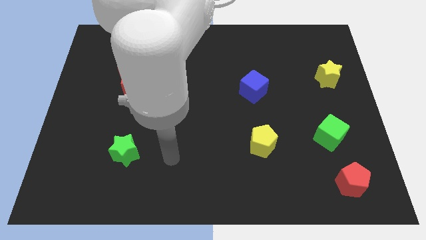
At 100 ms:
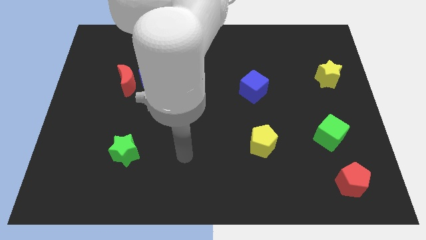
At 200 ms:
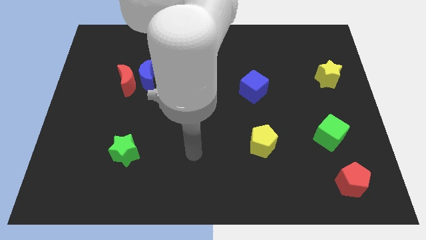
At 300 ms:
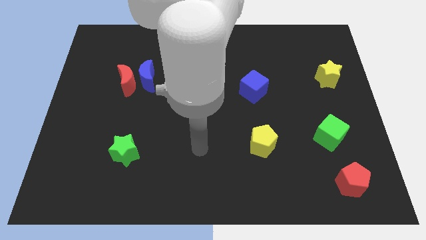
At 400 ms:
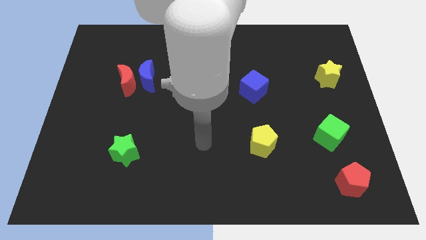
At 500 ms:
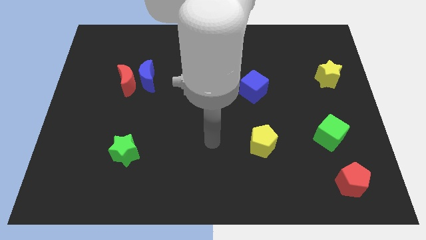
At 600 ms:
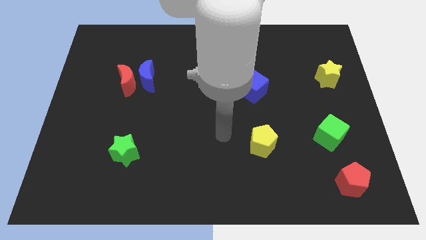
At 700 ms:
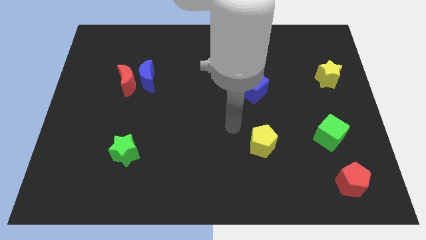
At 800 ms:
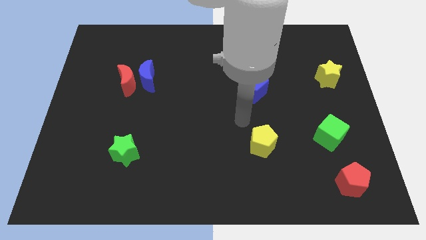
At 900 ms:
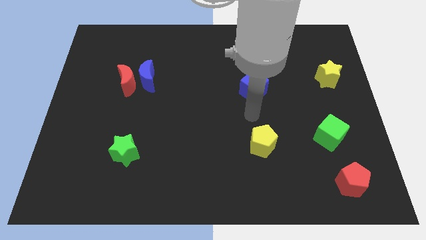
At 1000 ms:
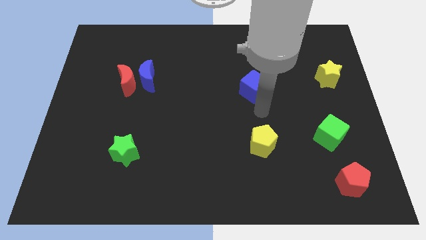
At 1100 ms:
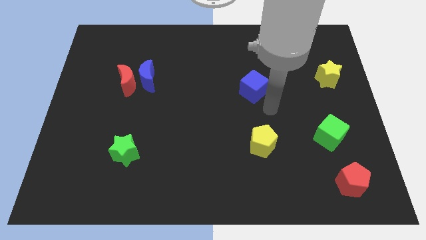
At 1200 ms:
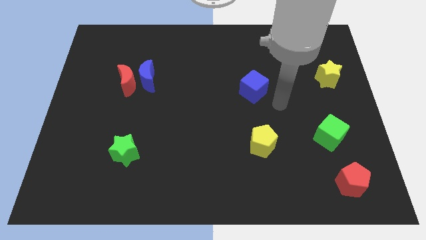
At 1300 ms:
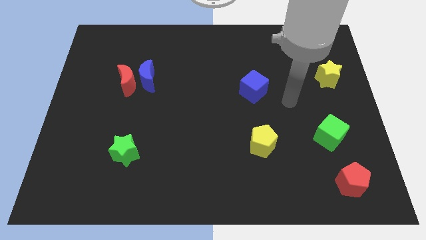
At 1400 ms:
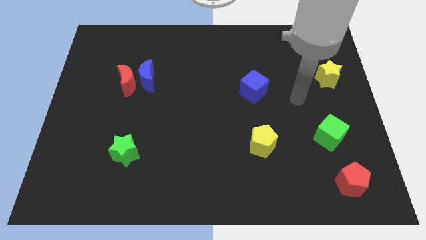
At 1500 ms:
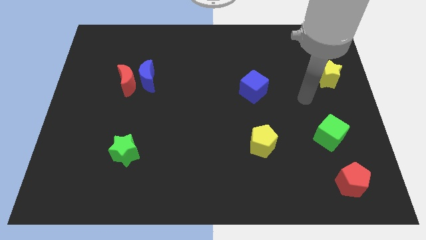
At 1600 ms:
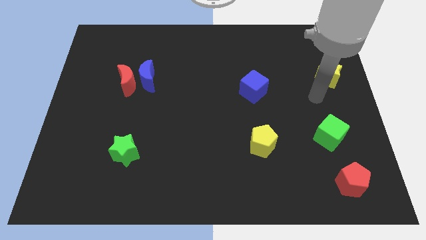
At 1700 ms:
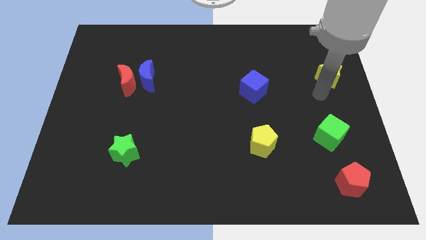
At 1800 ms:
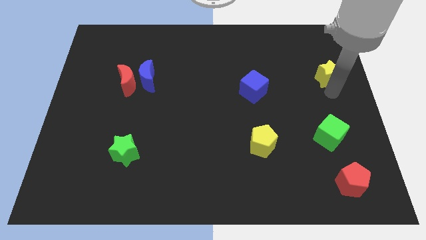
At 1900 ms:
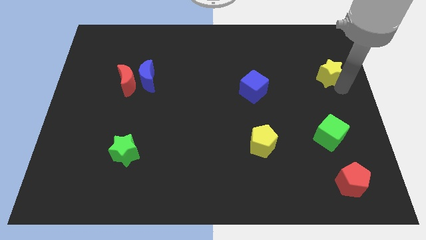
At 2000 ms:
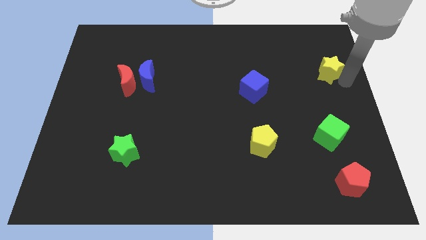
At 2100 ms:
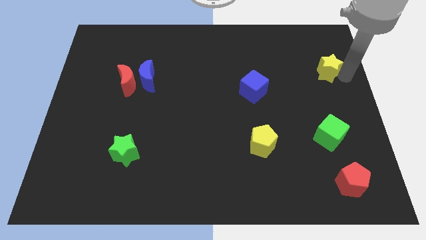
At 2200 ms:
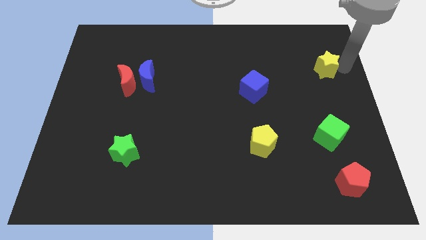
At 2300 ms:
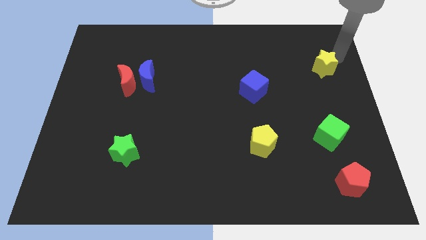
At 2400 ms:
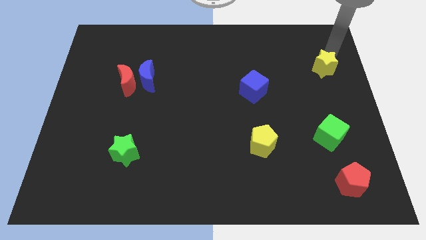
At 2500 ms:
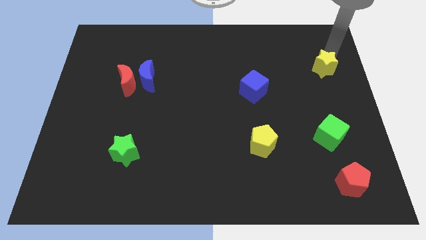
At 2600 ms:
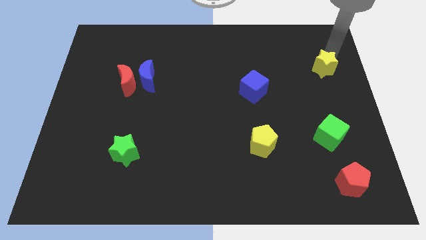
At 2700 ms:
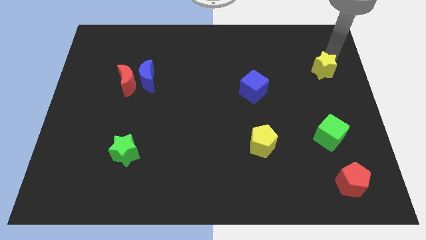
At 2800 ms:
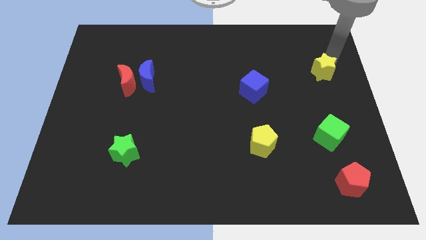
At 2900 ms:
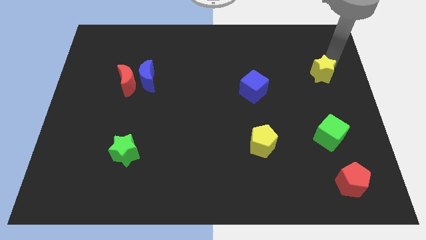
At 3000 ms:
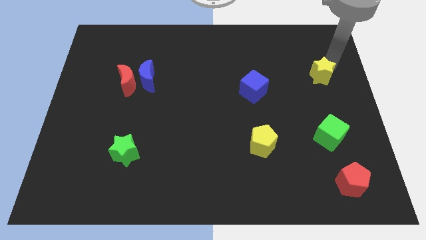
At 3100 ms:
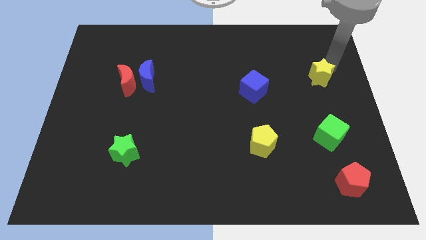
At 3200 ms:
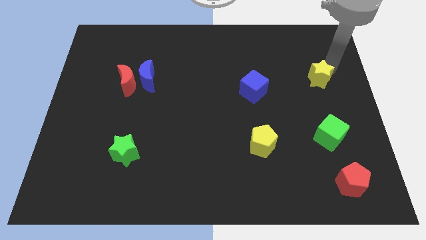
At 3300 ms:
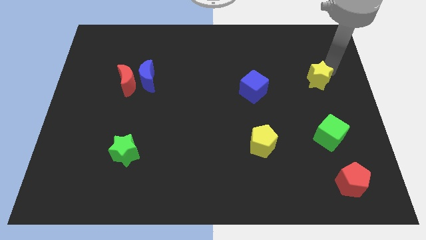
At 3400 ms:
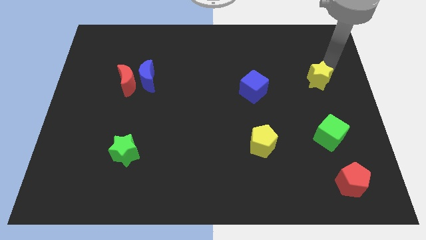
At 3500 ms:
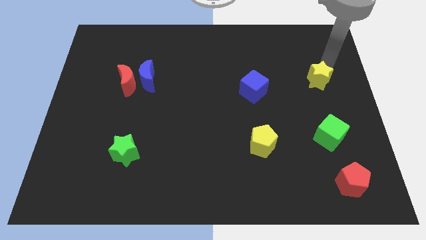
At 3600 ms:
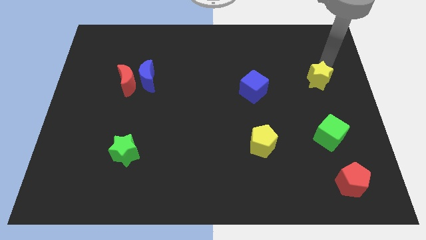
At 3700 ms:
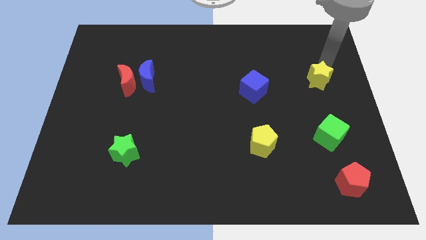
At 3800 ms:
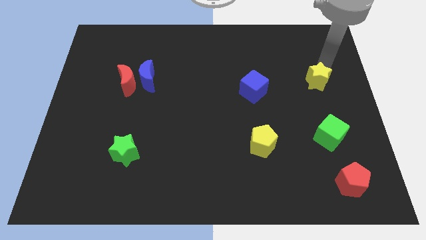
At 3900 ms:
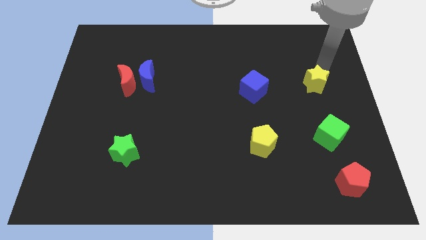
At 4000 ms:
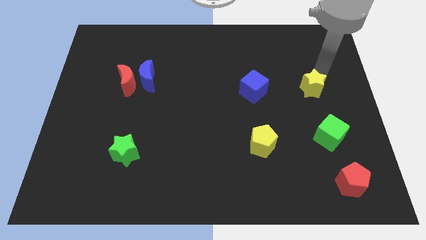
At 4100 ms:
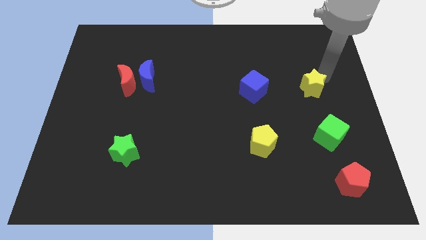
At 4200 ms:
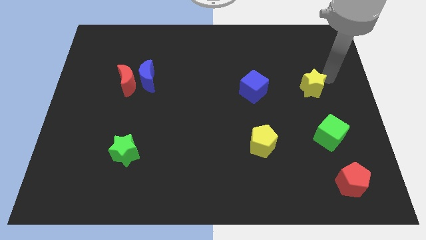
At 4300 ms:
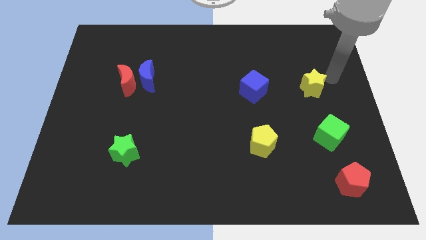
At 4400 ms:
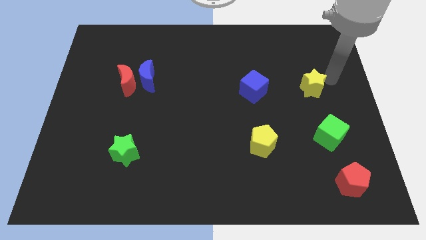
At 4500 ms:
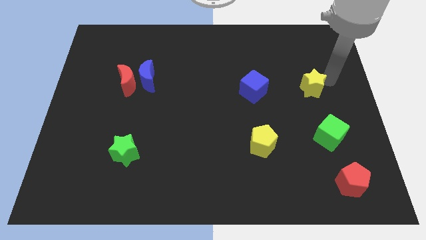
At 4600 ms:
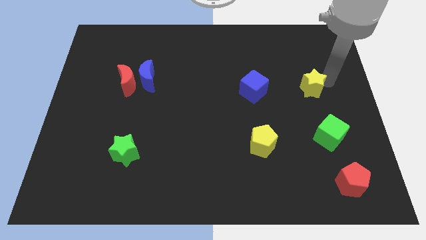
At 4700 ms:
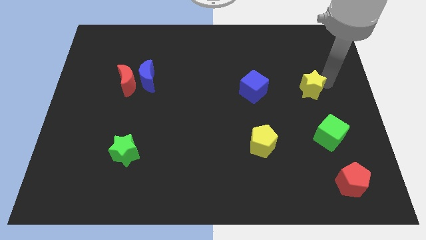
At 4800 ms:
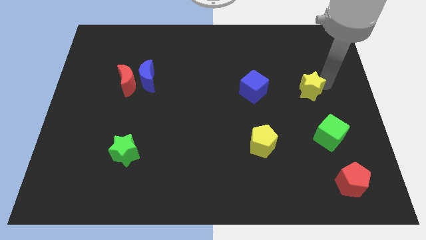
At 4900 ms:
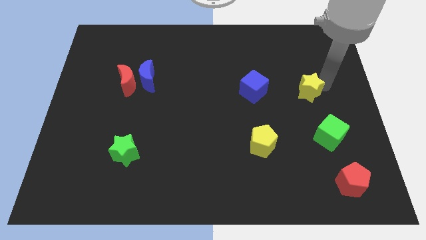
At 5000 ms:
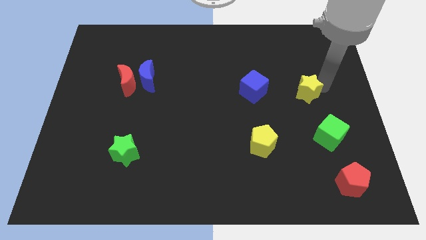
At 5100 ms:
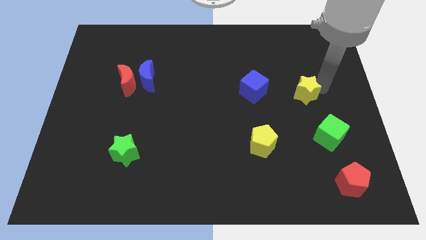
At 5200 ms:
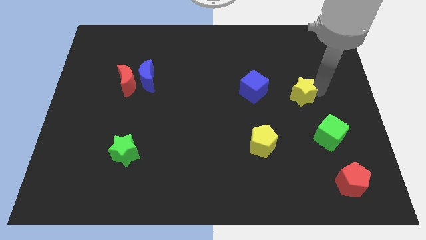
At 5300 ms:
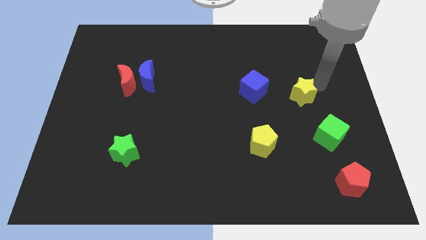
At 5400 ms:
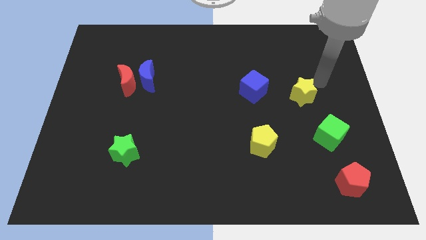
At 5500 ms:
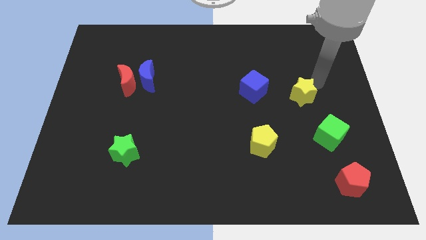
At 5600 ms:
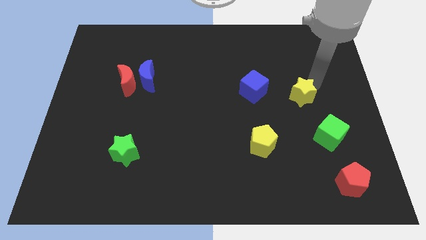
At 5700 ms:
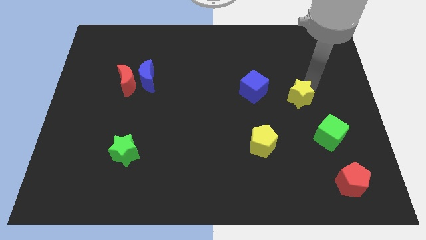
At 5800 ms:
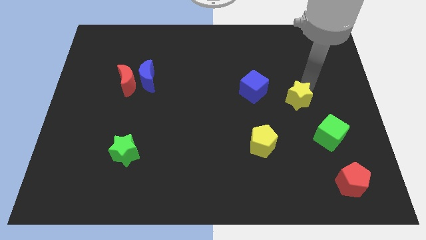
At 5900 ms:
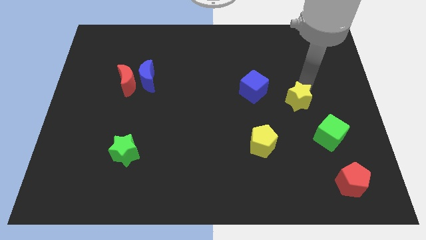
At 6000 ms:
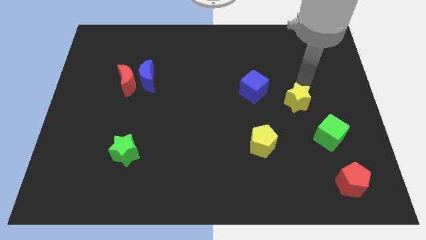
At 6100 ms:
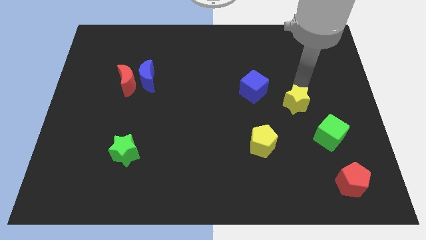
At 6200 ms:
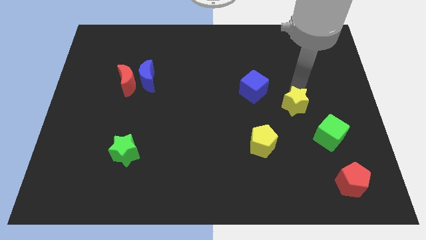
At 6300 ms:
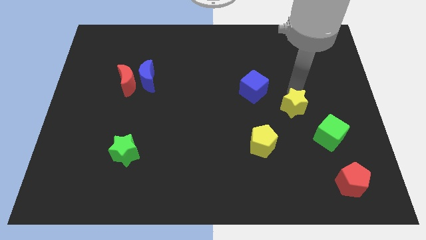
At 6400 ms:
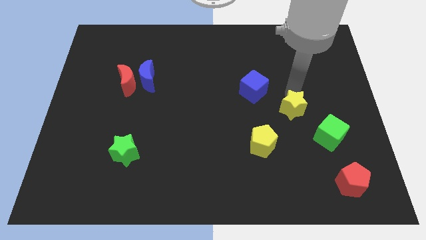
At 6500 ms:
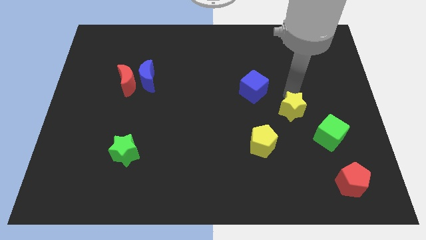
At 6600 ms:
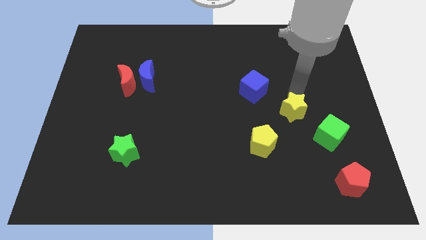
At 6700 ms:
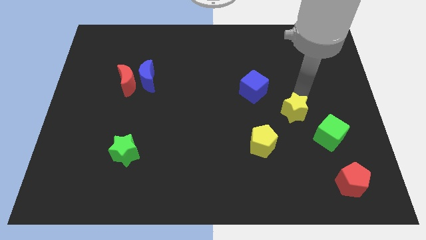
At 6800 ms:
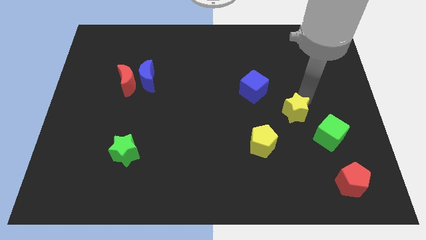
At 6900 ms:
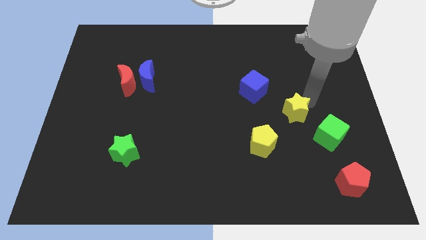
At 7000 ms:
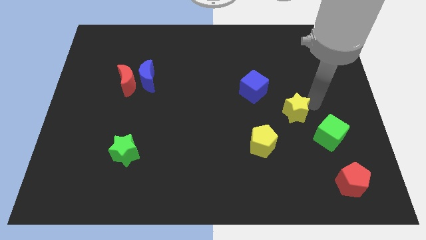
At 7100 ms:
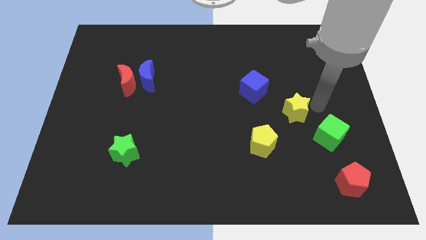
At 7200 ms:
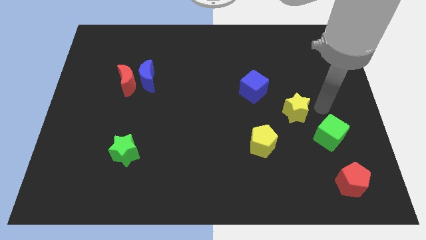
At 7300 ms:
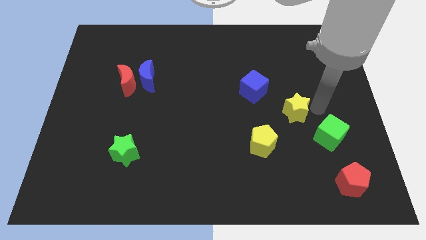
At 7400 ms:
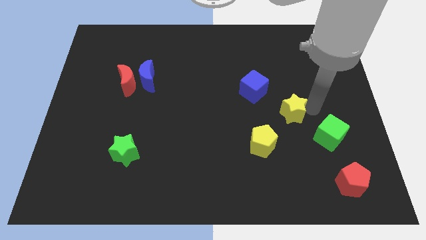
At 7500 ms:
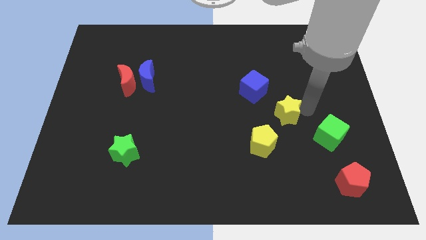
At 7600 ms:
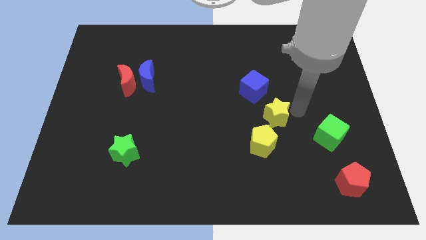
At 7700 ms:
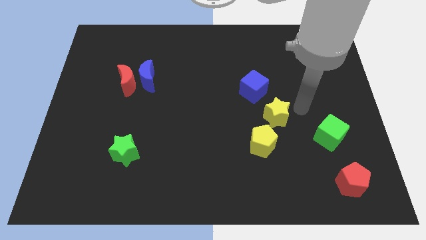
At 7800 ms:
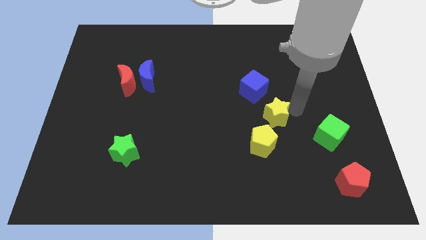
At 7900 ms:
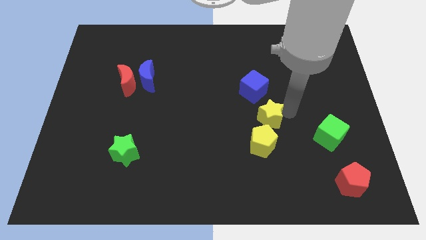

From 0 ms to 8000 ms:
push the yellow star down and to the left
